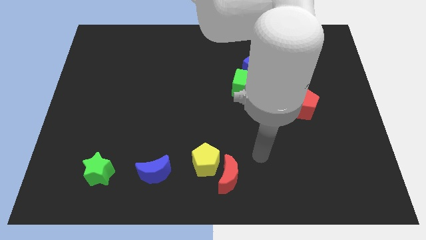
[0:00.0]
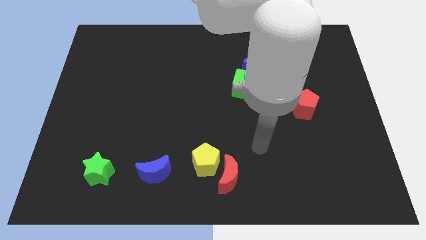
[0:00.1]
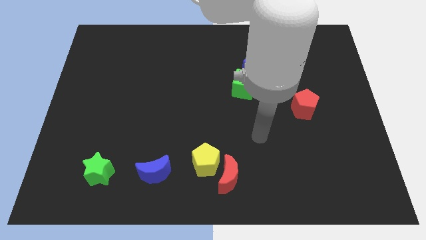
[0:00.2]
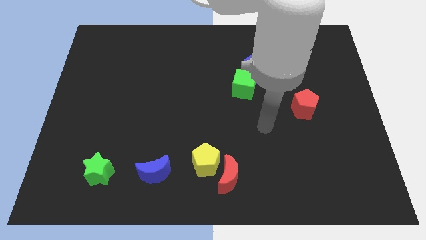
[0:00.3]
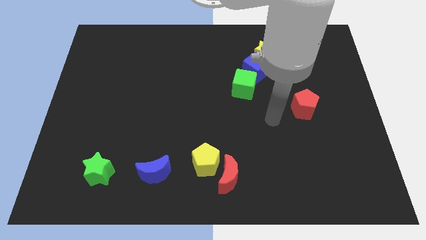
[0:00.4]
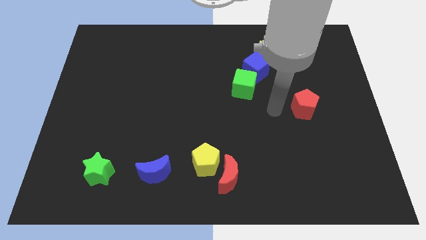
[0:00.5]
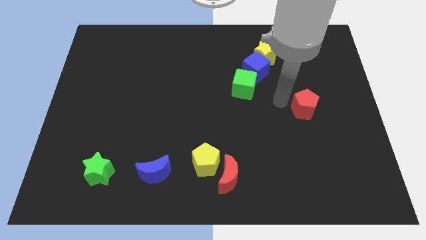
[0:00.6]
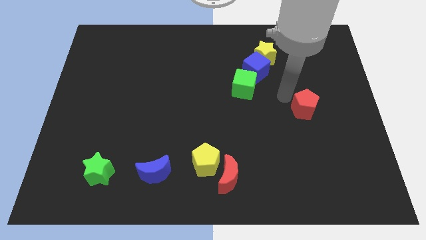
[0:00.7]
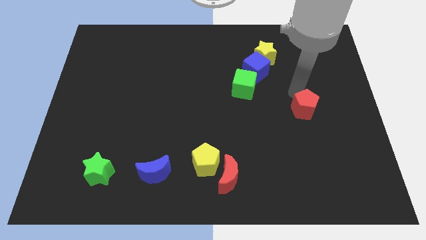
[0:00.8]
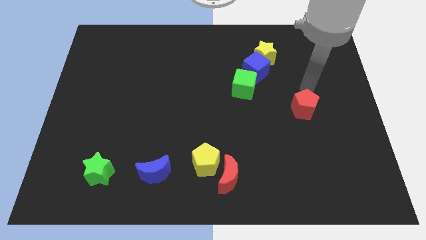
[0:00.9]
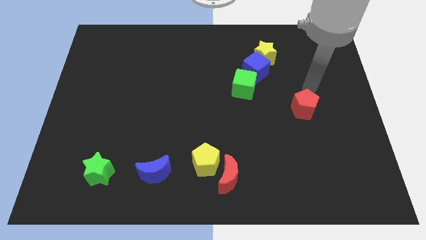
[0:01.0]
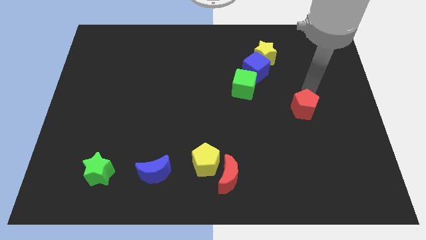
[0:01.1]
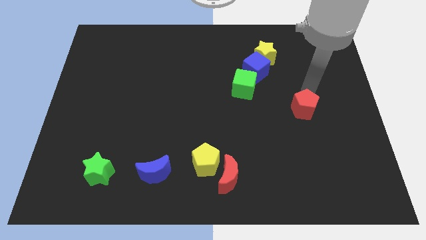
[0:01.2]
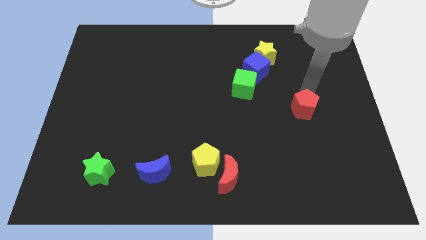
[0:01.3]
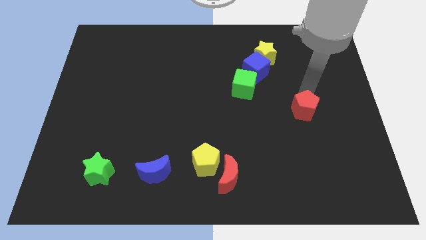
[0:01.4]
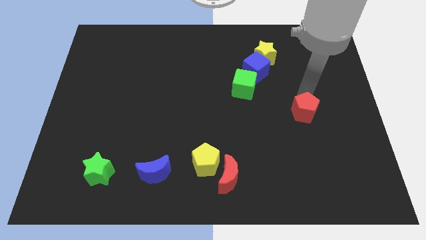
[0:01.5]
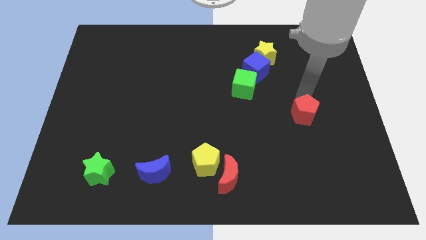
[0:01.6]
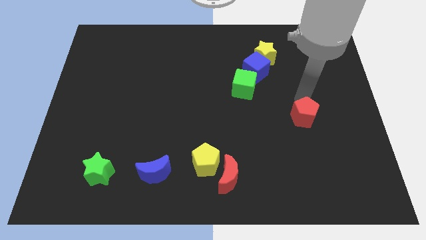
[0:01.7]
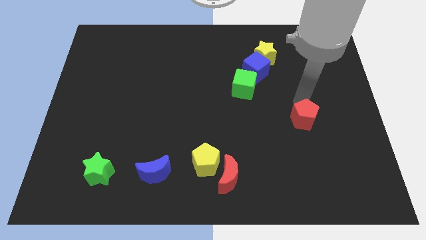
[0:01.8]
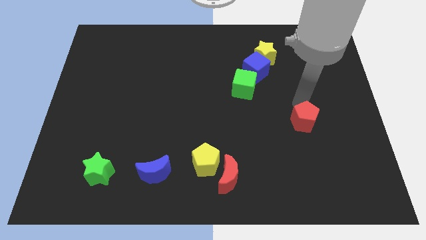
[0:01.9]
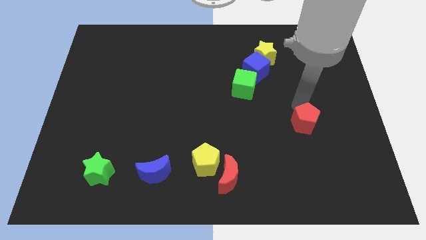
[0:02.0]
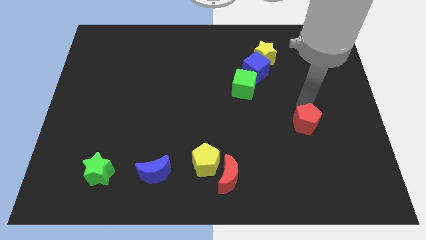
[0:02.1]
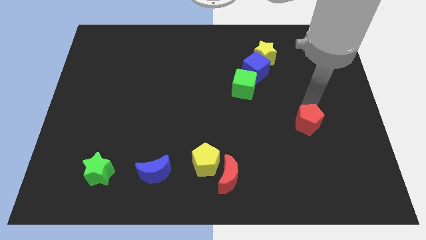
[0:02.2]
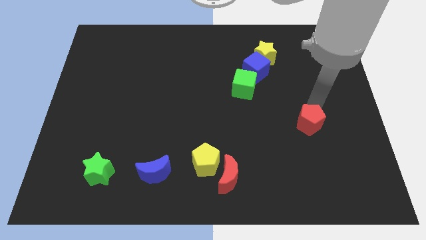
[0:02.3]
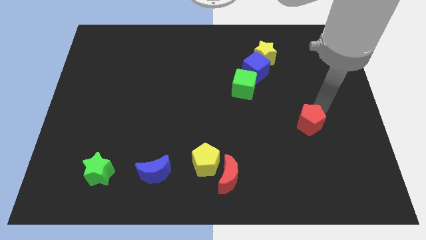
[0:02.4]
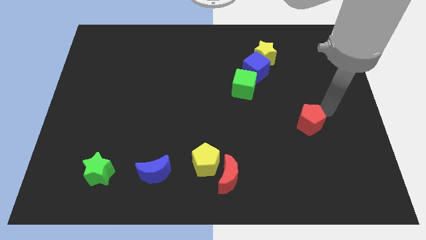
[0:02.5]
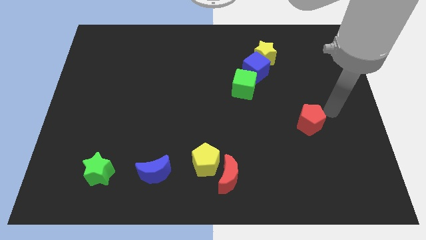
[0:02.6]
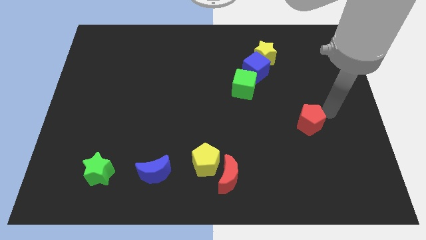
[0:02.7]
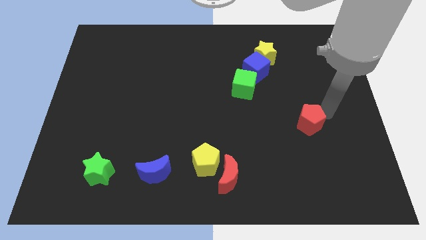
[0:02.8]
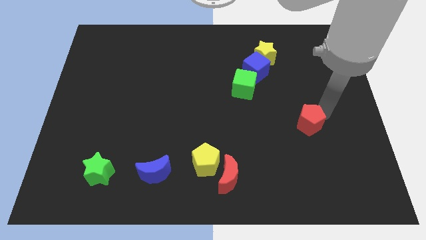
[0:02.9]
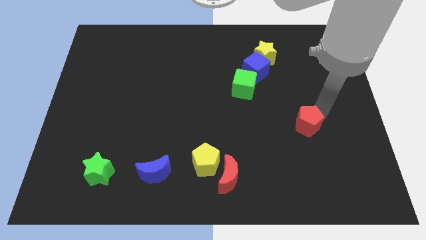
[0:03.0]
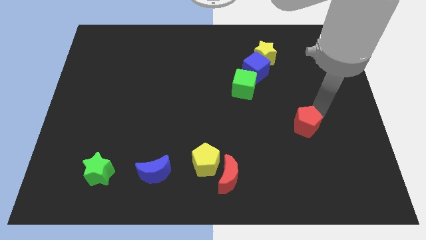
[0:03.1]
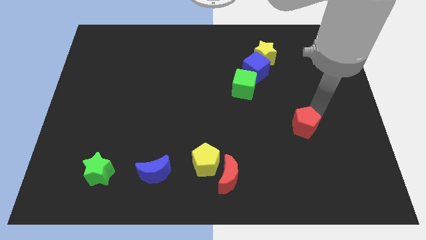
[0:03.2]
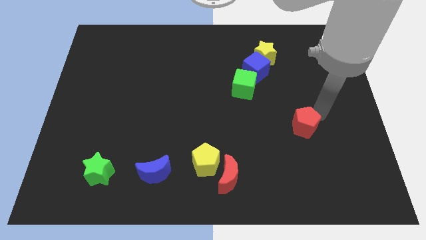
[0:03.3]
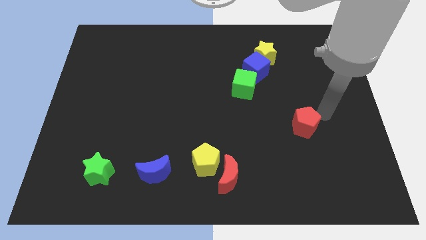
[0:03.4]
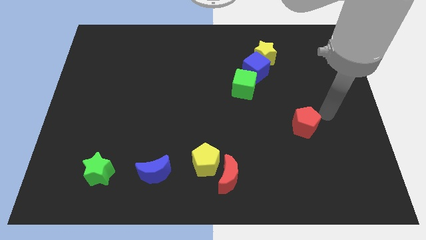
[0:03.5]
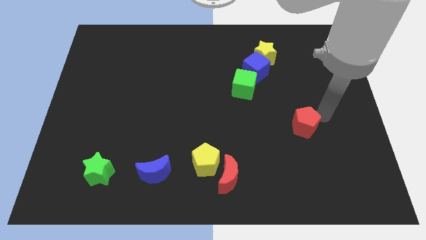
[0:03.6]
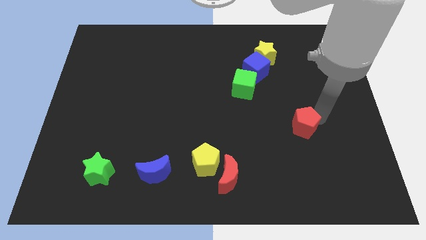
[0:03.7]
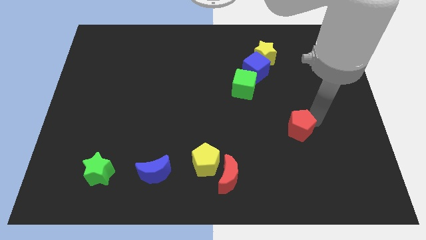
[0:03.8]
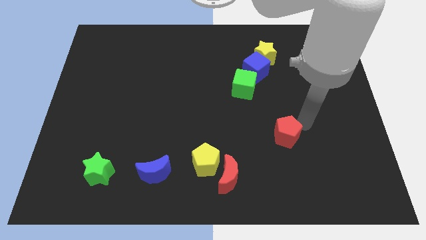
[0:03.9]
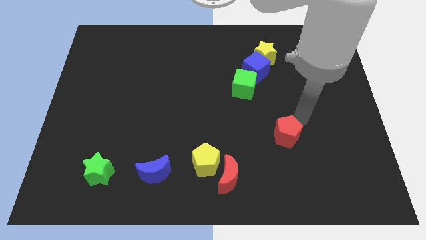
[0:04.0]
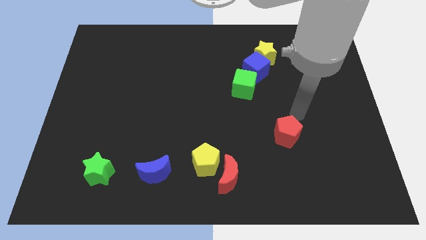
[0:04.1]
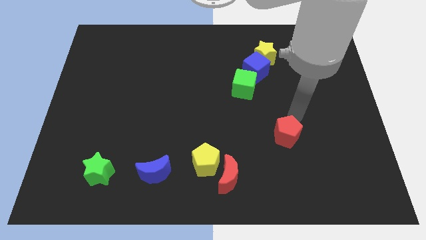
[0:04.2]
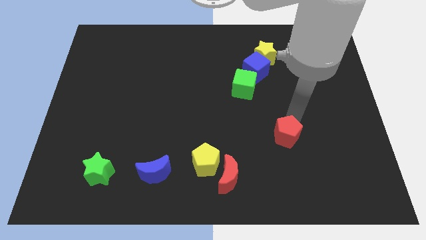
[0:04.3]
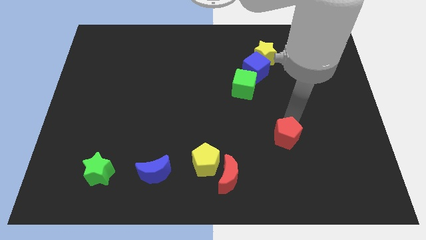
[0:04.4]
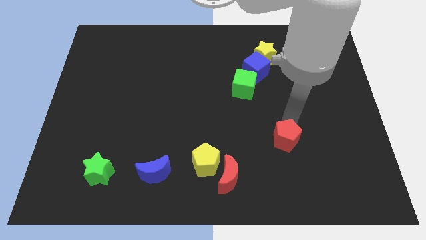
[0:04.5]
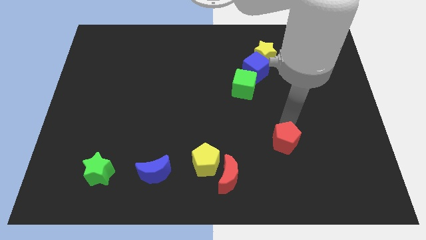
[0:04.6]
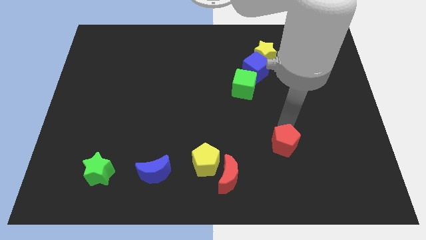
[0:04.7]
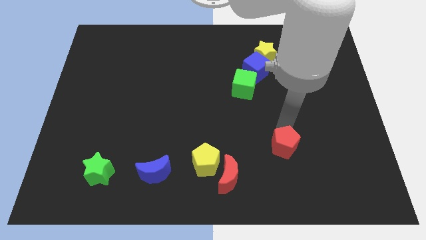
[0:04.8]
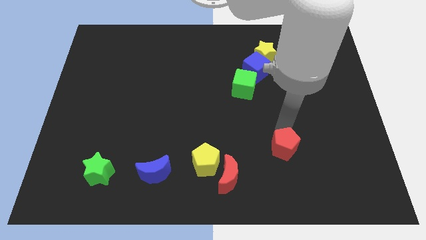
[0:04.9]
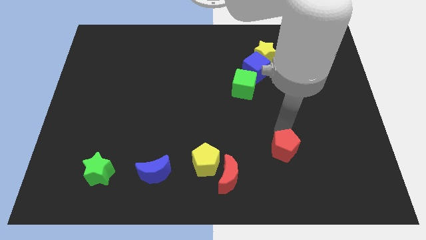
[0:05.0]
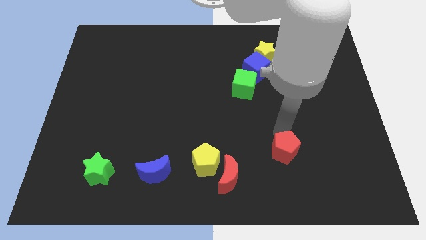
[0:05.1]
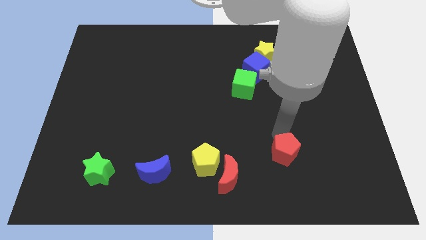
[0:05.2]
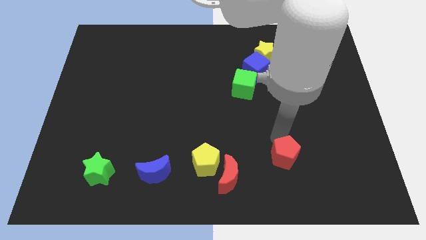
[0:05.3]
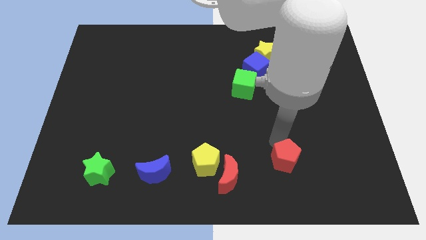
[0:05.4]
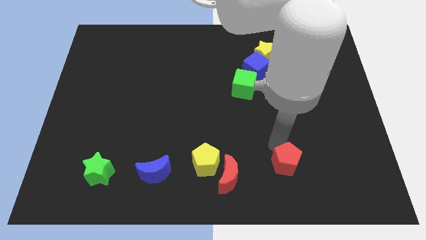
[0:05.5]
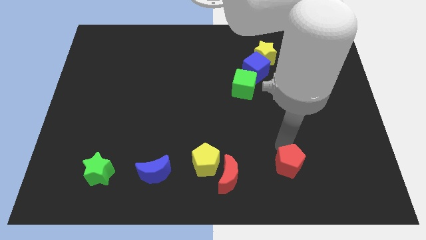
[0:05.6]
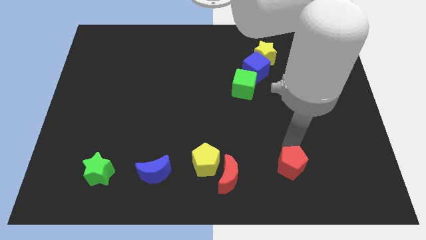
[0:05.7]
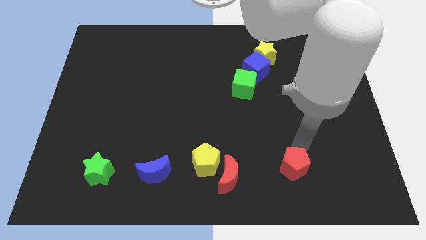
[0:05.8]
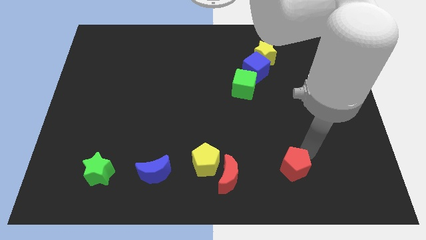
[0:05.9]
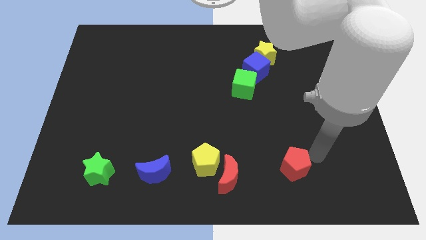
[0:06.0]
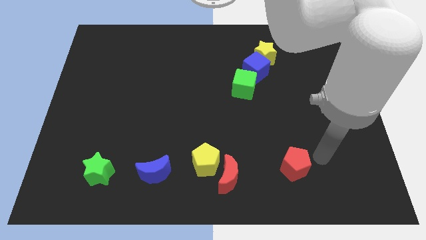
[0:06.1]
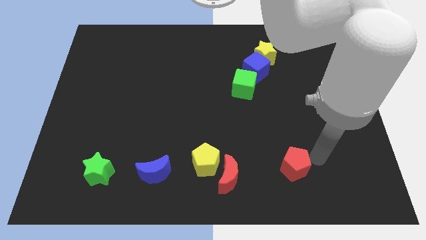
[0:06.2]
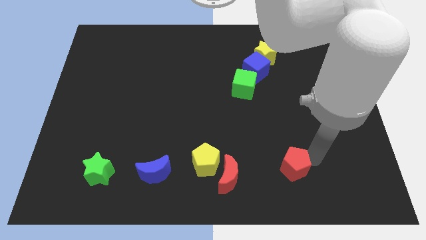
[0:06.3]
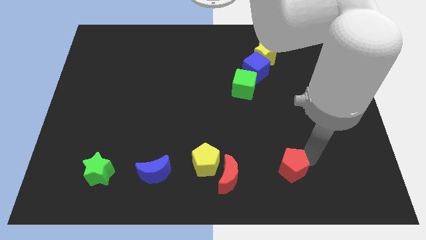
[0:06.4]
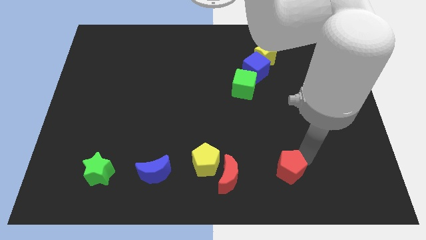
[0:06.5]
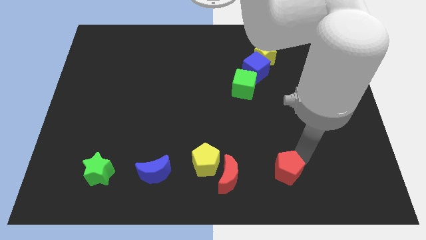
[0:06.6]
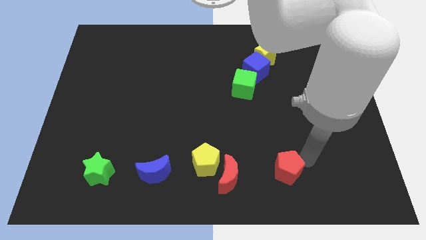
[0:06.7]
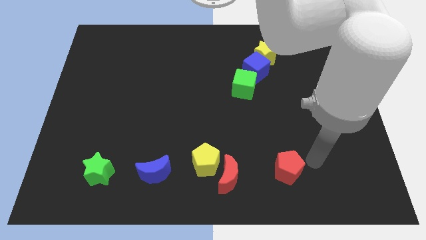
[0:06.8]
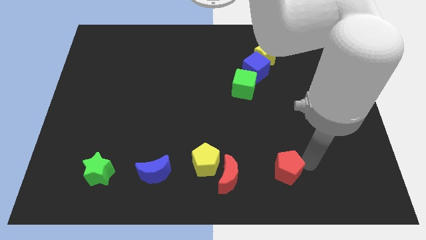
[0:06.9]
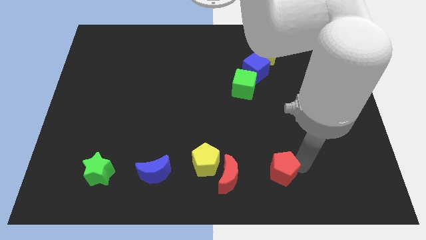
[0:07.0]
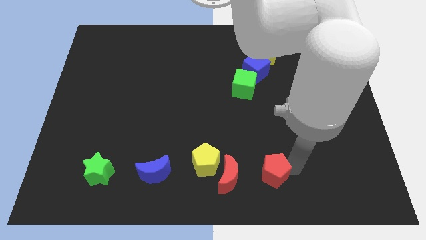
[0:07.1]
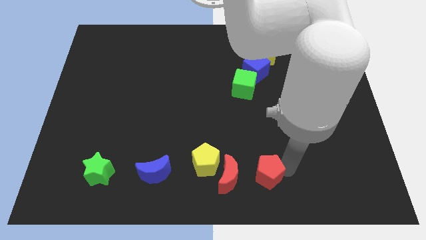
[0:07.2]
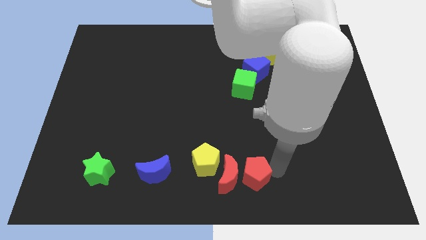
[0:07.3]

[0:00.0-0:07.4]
push the red pentagon to the bottom

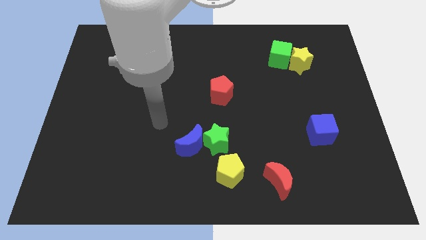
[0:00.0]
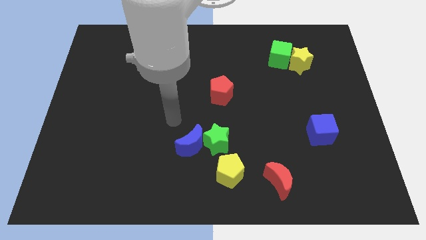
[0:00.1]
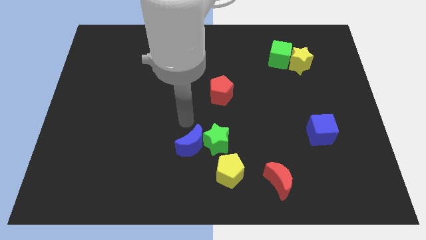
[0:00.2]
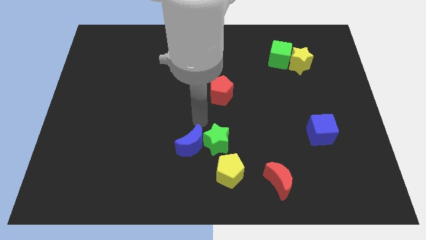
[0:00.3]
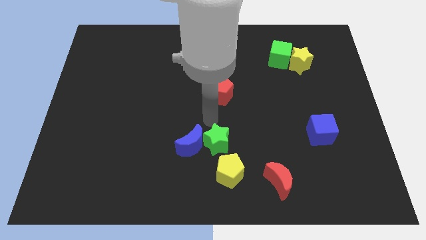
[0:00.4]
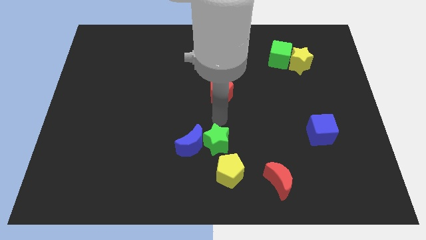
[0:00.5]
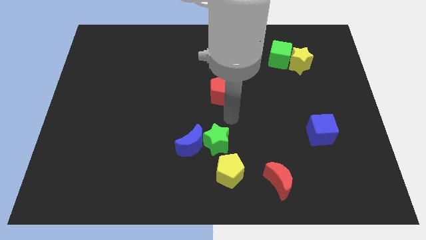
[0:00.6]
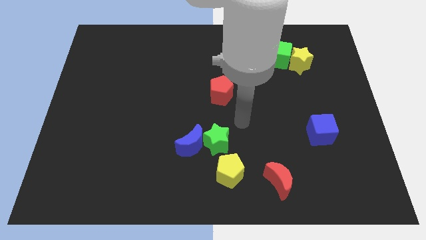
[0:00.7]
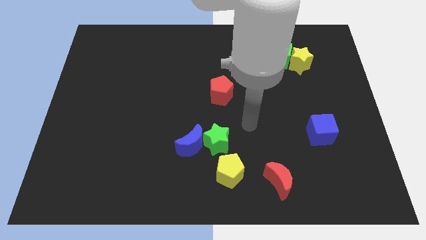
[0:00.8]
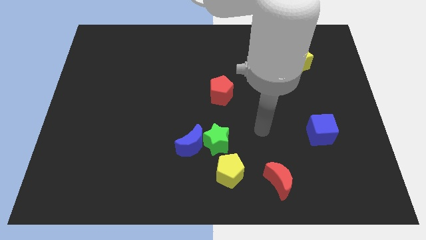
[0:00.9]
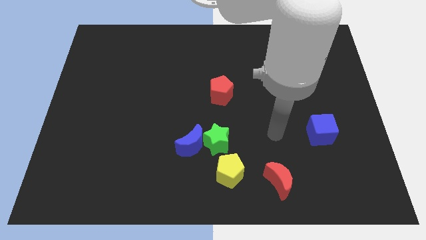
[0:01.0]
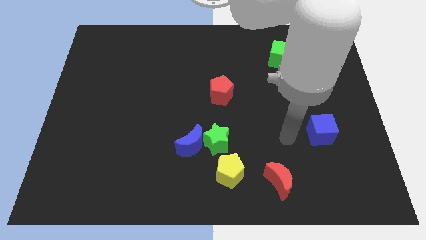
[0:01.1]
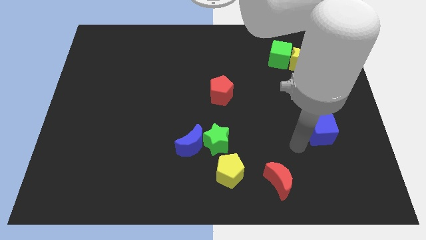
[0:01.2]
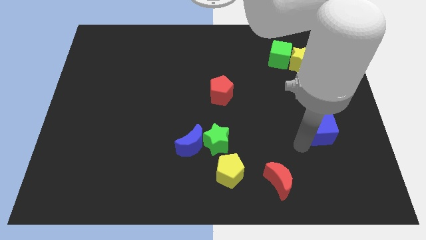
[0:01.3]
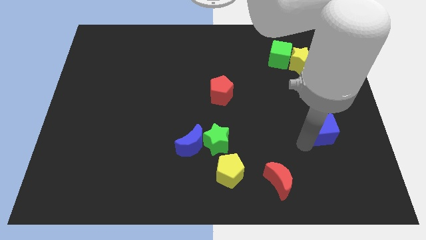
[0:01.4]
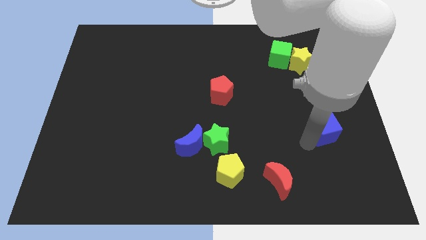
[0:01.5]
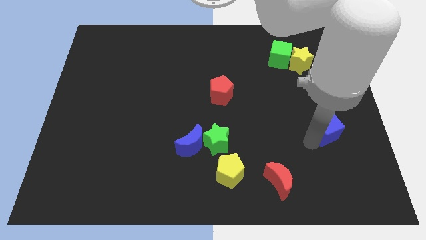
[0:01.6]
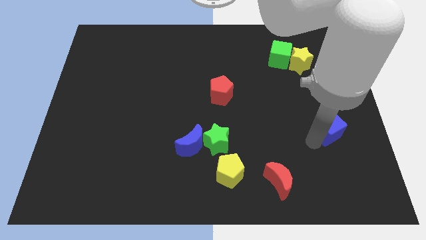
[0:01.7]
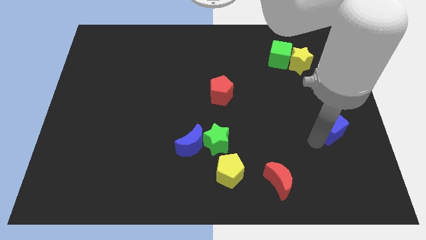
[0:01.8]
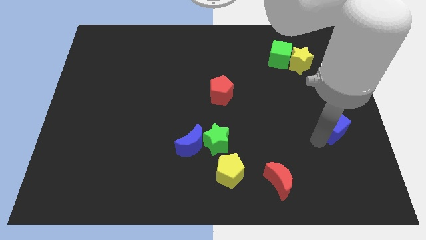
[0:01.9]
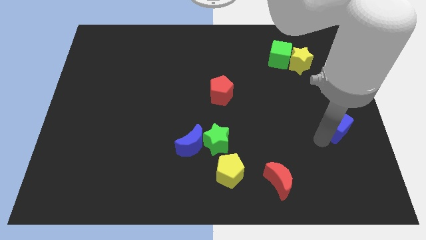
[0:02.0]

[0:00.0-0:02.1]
move the blue cube to the right side of the board
